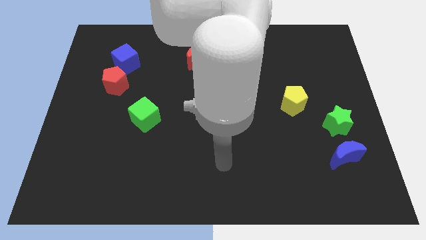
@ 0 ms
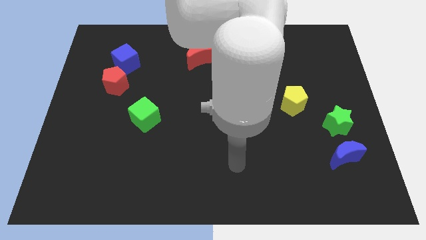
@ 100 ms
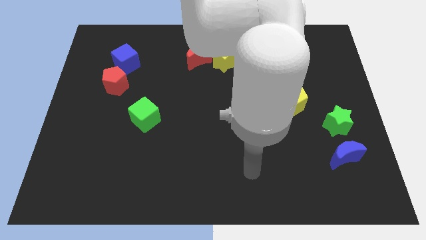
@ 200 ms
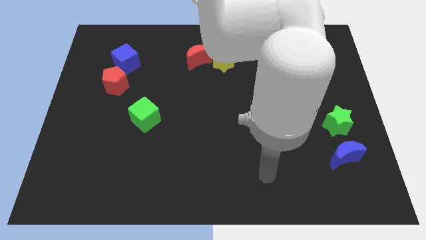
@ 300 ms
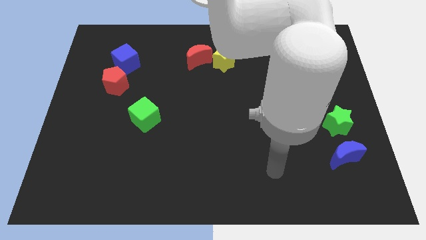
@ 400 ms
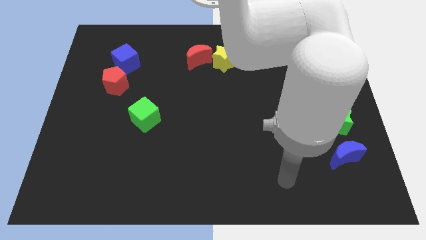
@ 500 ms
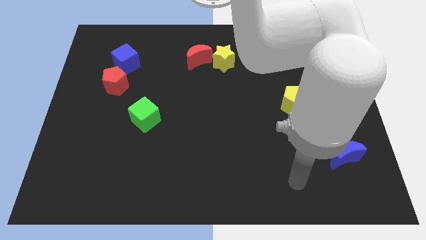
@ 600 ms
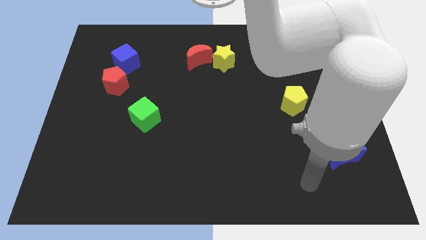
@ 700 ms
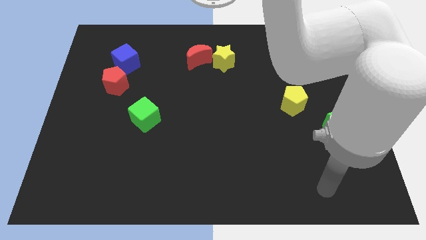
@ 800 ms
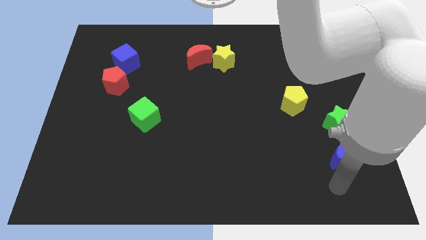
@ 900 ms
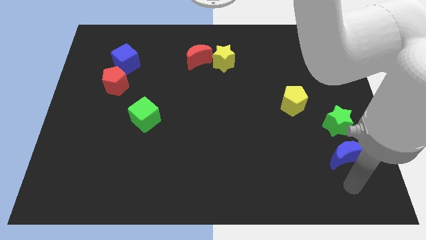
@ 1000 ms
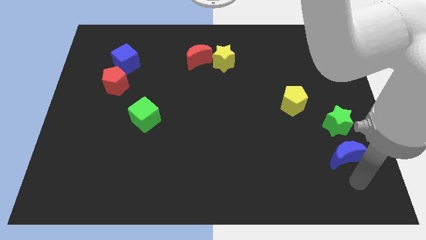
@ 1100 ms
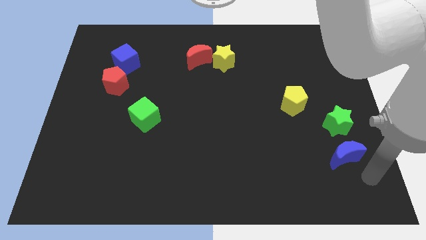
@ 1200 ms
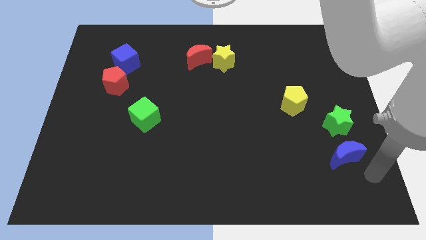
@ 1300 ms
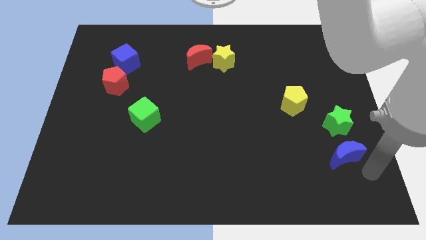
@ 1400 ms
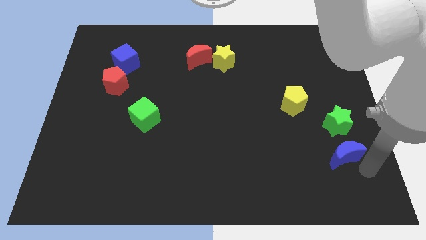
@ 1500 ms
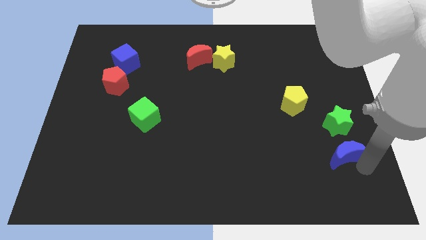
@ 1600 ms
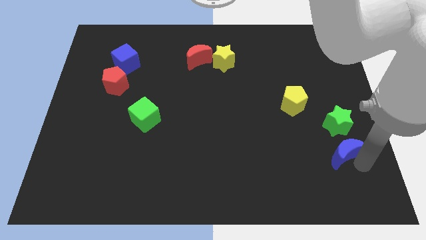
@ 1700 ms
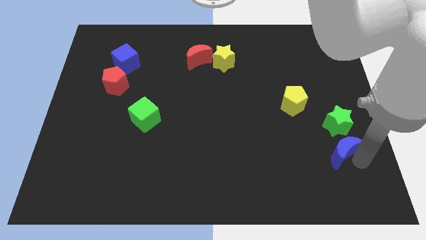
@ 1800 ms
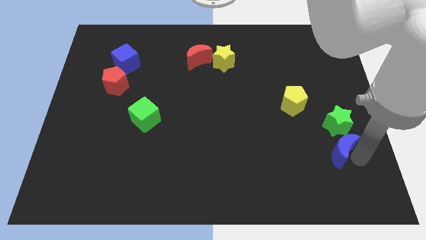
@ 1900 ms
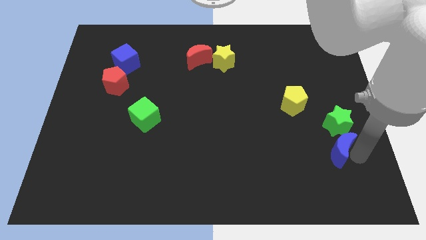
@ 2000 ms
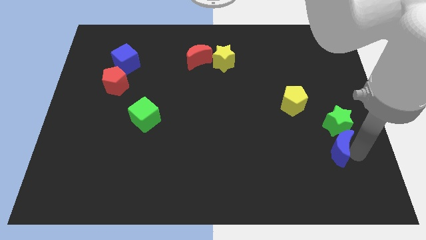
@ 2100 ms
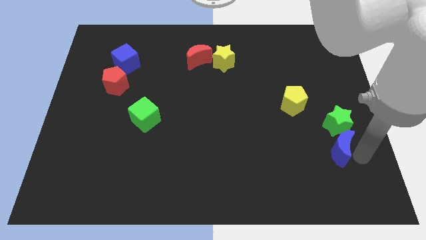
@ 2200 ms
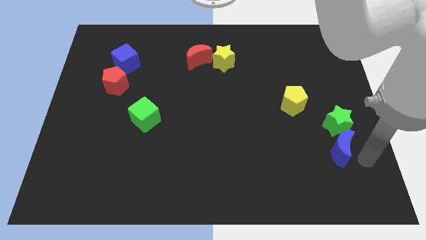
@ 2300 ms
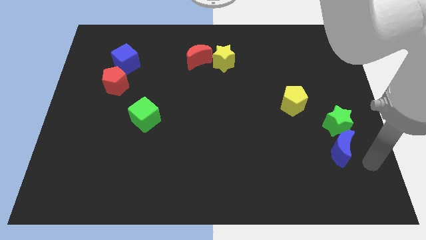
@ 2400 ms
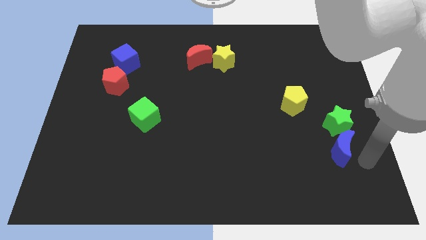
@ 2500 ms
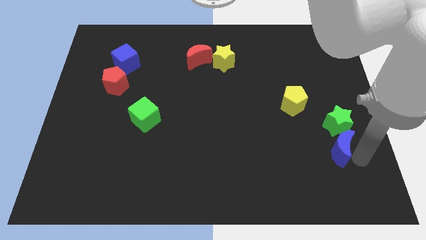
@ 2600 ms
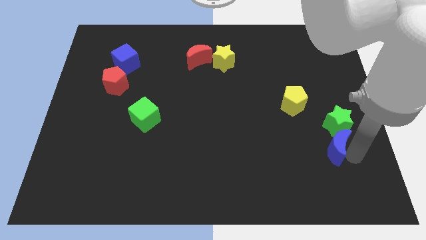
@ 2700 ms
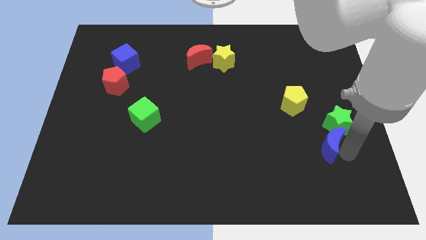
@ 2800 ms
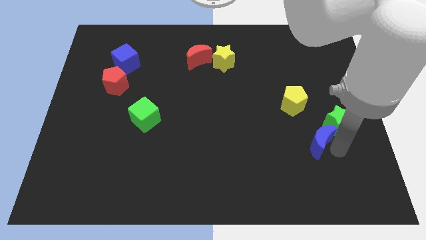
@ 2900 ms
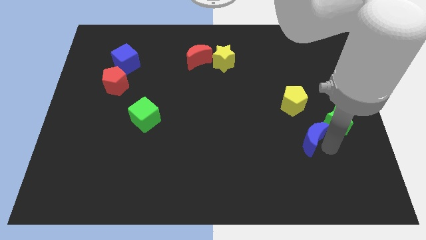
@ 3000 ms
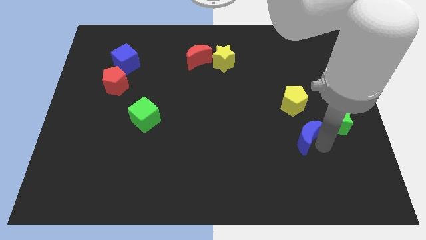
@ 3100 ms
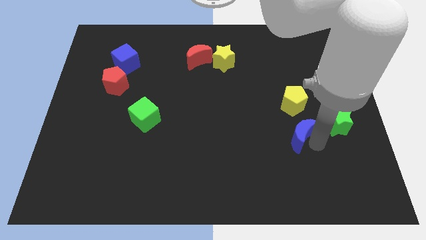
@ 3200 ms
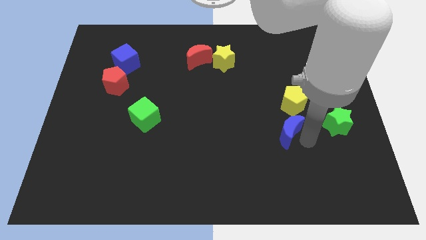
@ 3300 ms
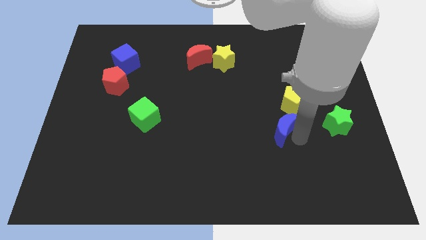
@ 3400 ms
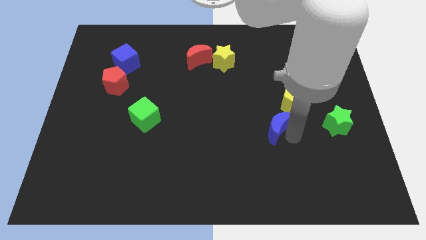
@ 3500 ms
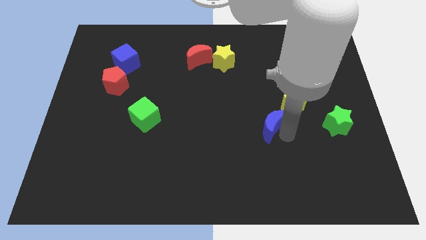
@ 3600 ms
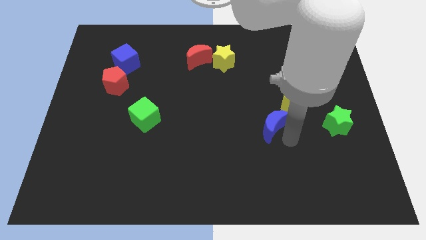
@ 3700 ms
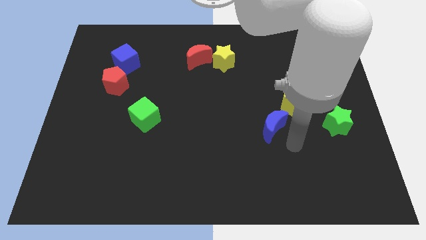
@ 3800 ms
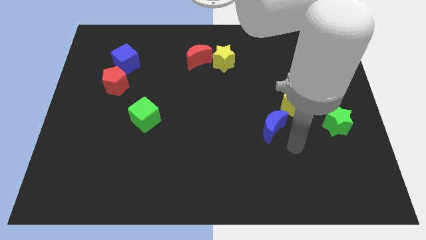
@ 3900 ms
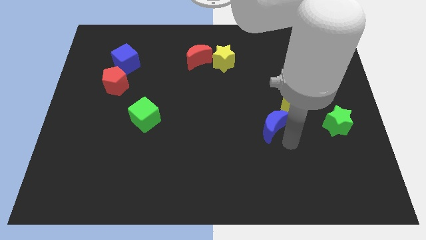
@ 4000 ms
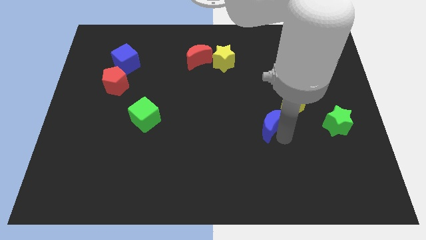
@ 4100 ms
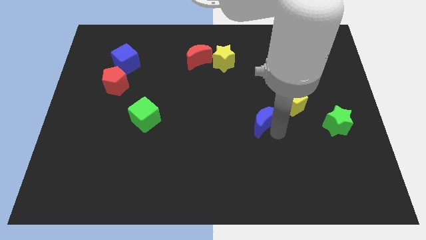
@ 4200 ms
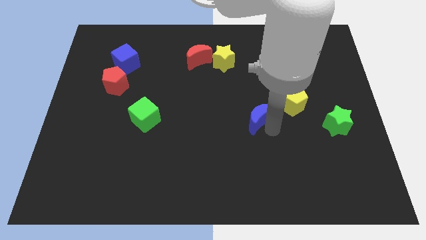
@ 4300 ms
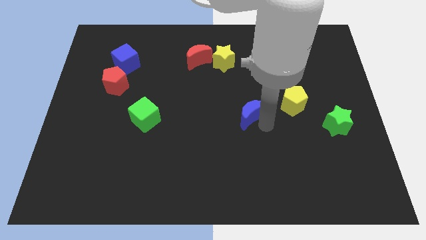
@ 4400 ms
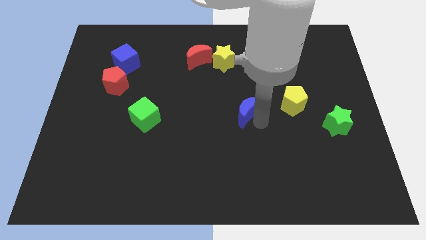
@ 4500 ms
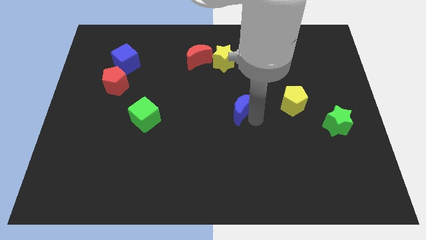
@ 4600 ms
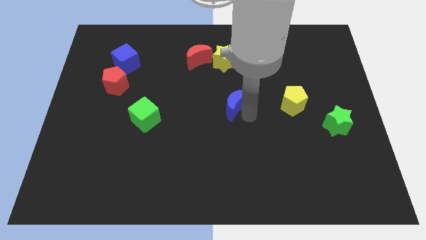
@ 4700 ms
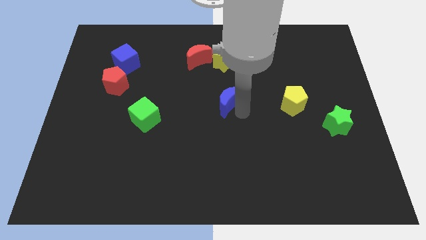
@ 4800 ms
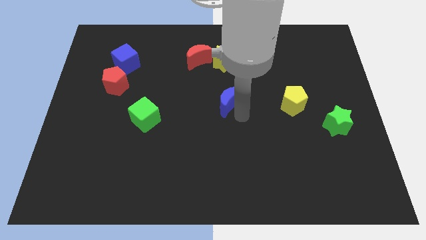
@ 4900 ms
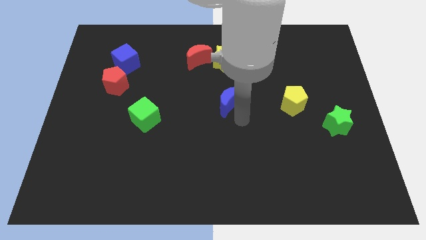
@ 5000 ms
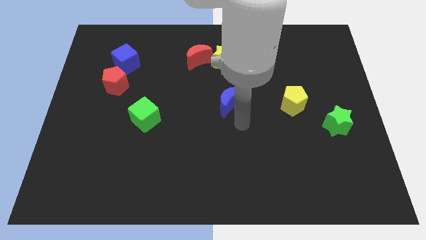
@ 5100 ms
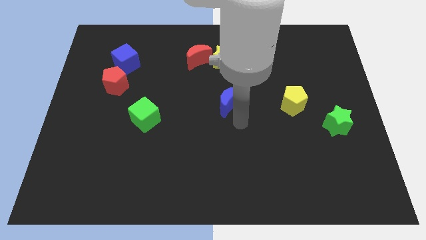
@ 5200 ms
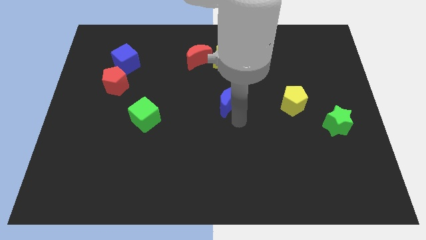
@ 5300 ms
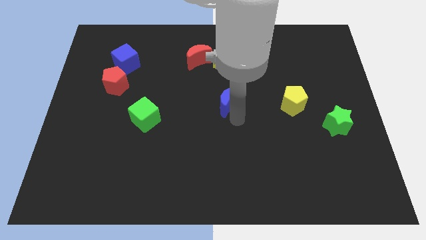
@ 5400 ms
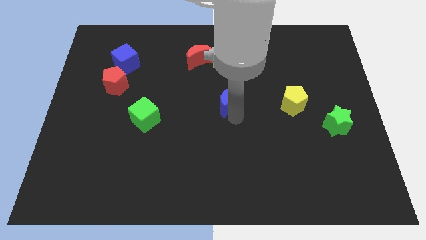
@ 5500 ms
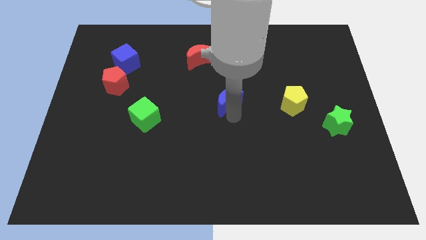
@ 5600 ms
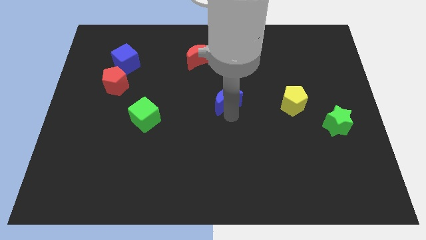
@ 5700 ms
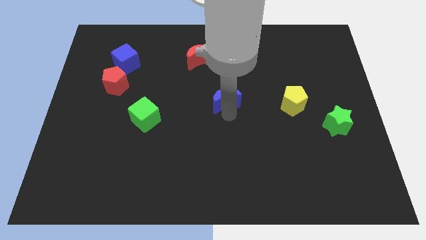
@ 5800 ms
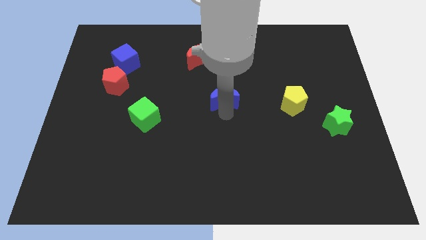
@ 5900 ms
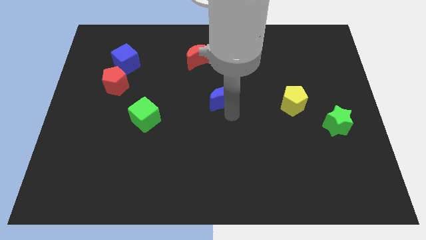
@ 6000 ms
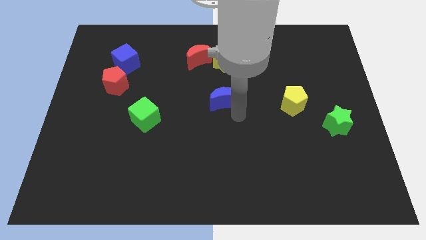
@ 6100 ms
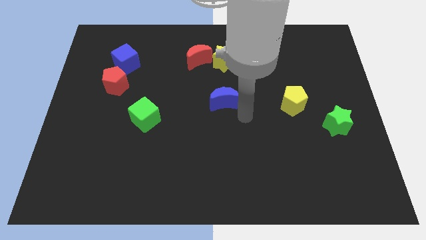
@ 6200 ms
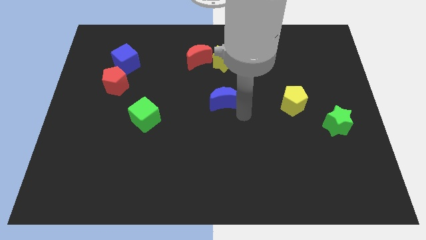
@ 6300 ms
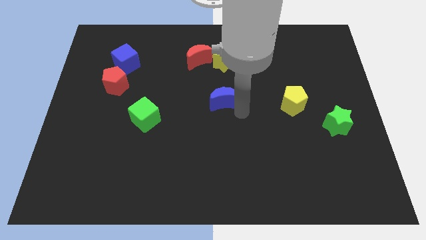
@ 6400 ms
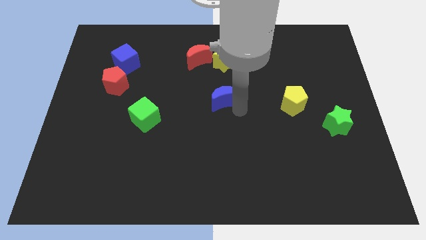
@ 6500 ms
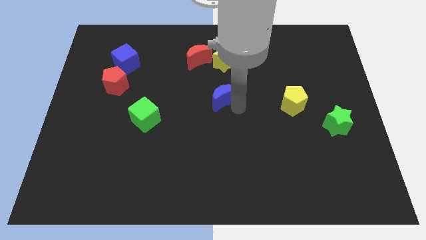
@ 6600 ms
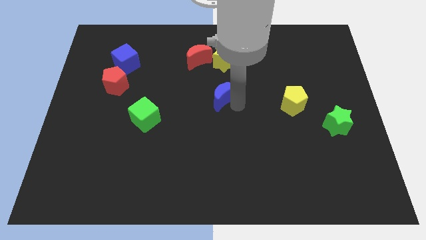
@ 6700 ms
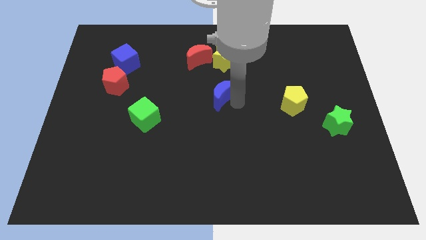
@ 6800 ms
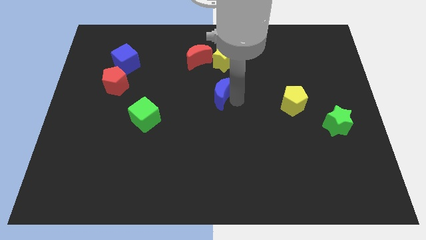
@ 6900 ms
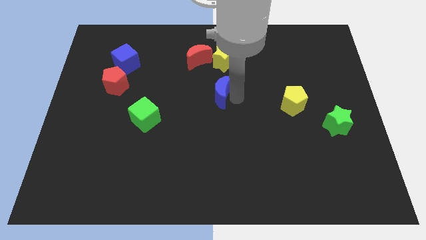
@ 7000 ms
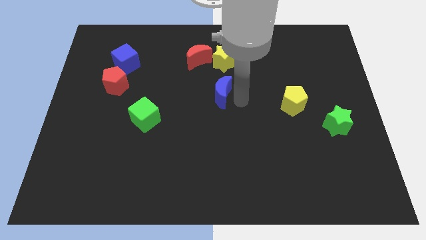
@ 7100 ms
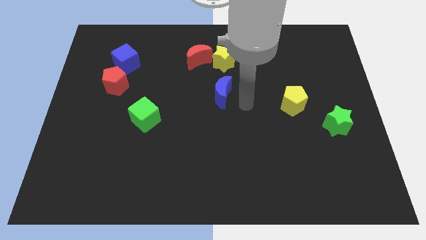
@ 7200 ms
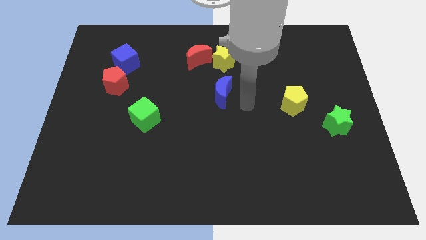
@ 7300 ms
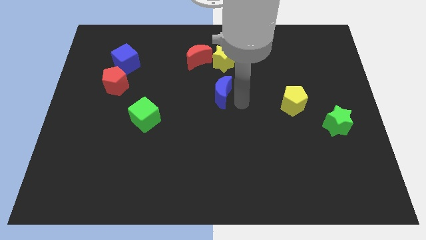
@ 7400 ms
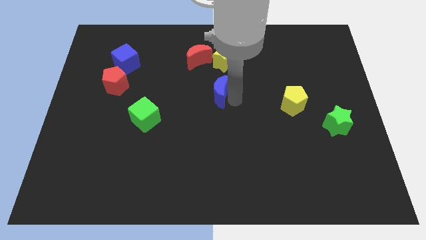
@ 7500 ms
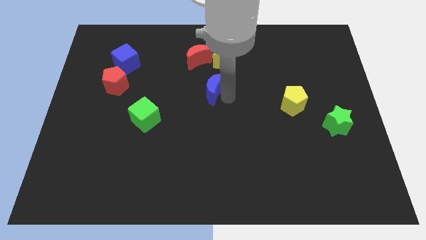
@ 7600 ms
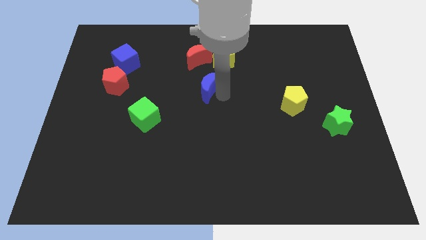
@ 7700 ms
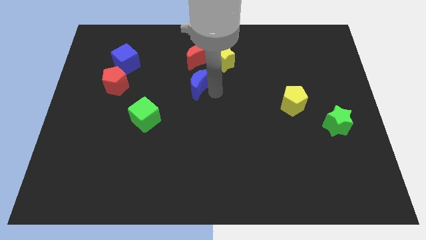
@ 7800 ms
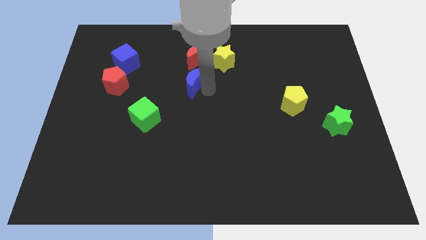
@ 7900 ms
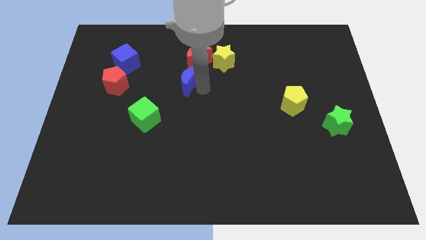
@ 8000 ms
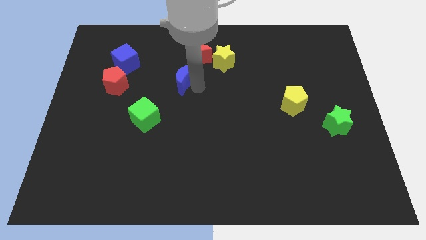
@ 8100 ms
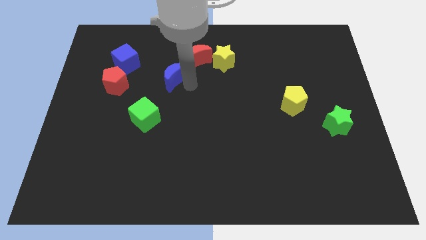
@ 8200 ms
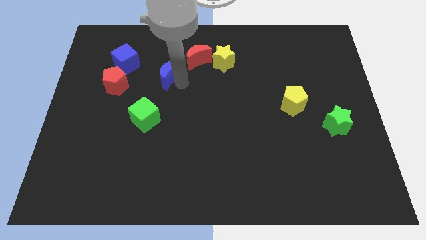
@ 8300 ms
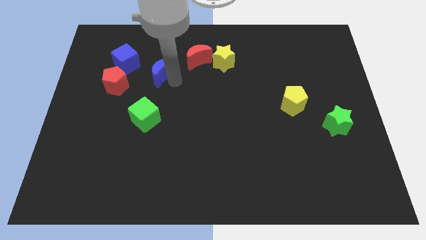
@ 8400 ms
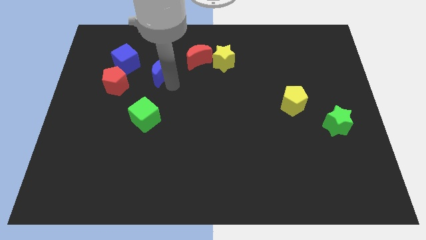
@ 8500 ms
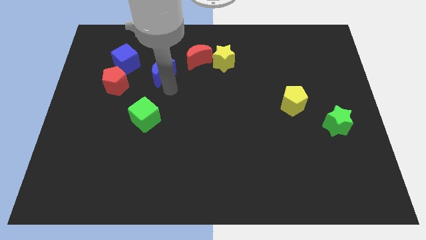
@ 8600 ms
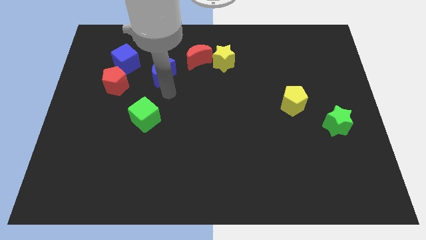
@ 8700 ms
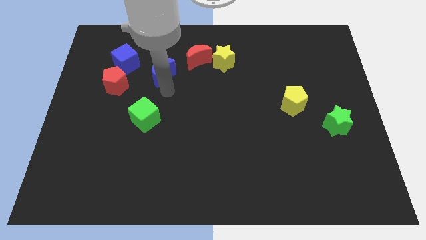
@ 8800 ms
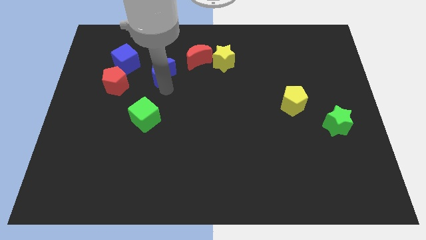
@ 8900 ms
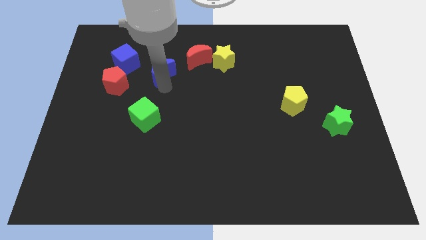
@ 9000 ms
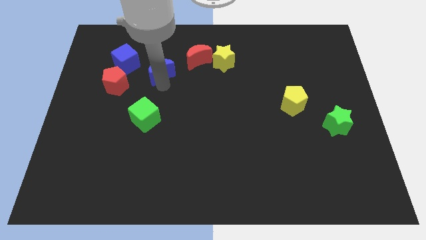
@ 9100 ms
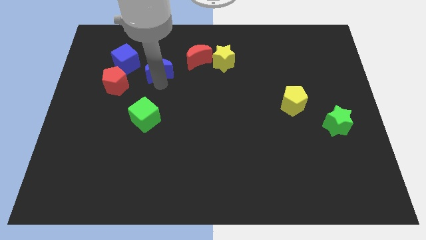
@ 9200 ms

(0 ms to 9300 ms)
slide the blue moon to the left of the red moon
